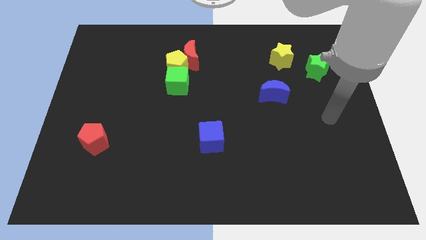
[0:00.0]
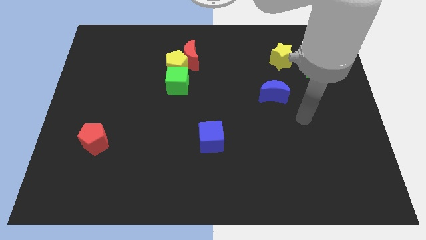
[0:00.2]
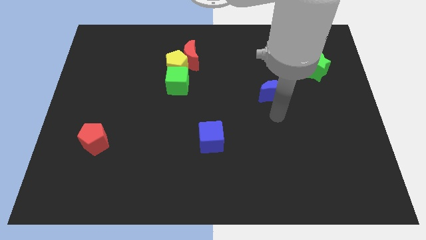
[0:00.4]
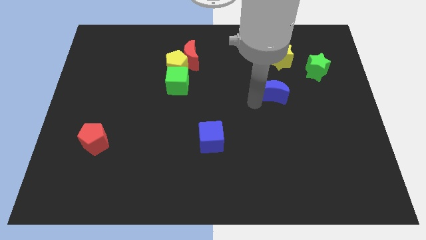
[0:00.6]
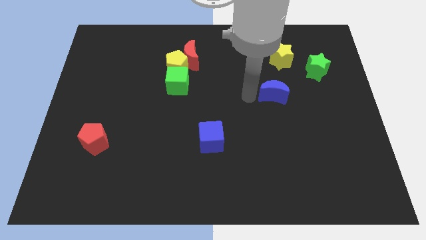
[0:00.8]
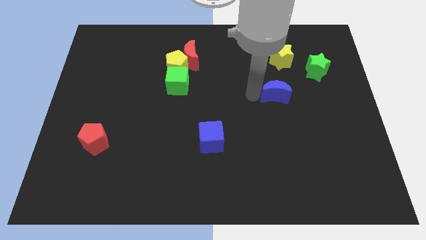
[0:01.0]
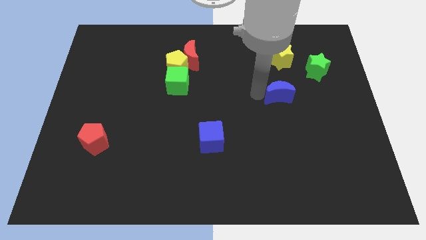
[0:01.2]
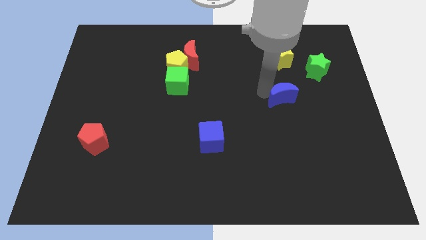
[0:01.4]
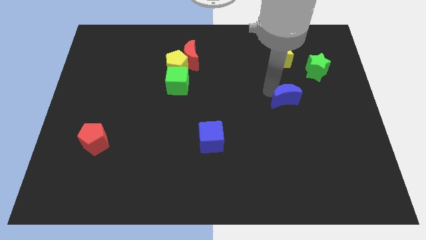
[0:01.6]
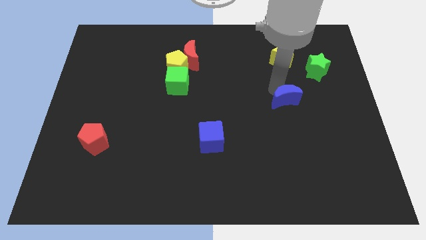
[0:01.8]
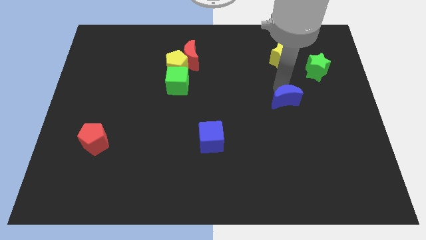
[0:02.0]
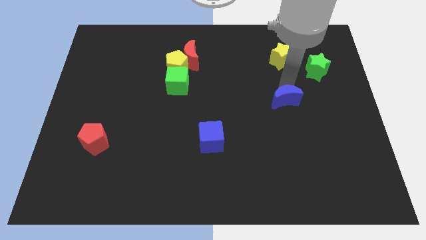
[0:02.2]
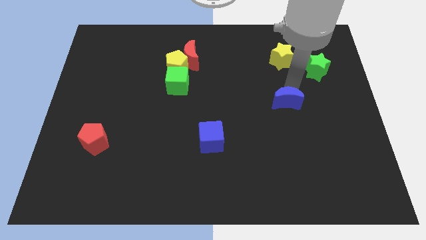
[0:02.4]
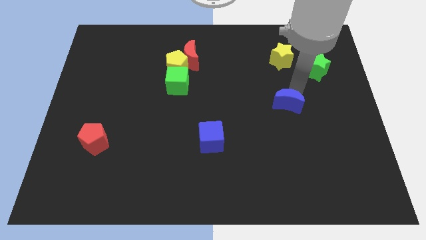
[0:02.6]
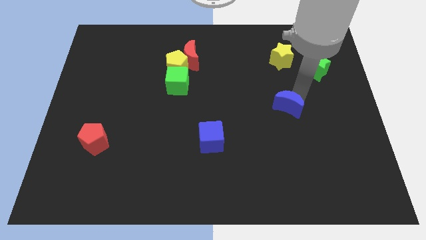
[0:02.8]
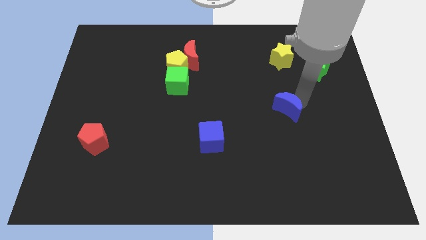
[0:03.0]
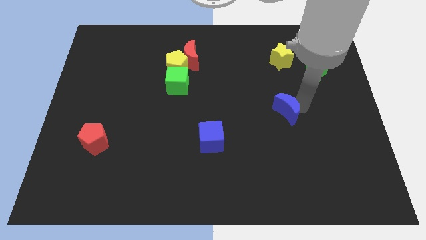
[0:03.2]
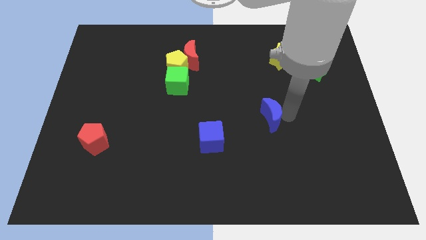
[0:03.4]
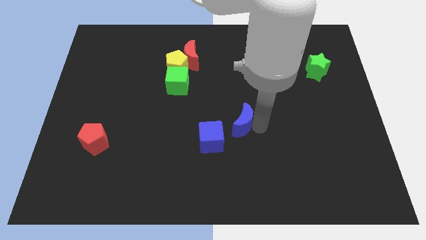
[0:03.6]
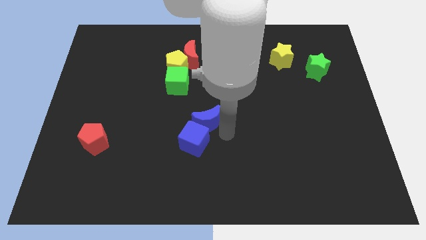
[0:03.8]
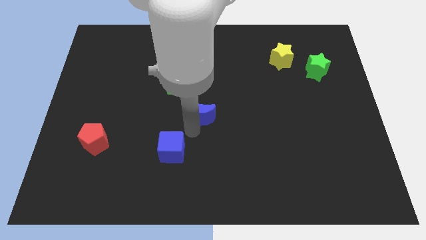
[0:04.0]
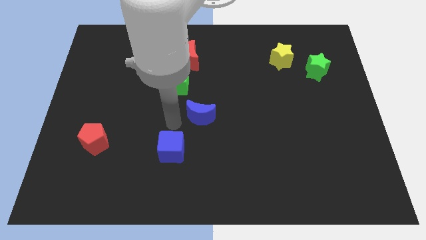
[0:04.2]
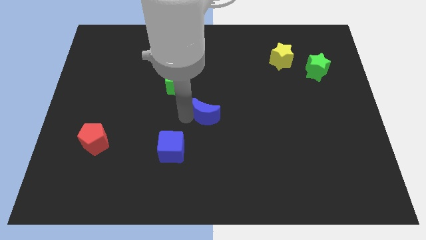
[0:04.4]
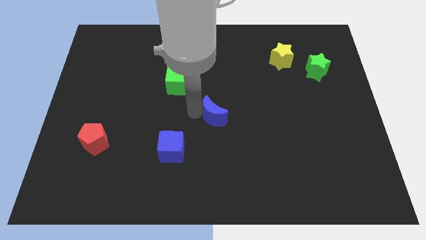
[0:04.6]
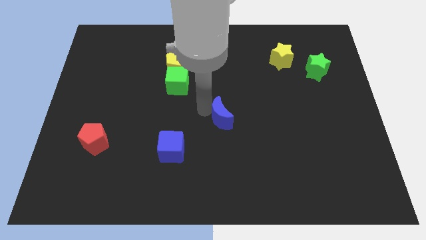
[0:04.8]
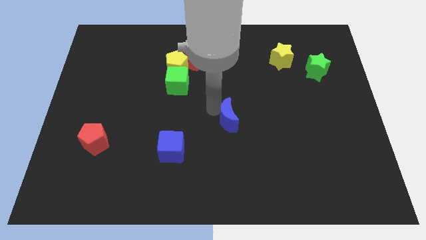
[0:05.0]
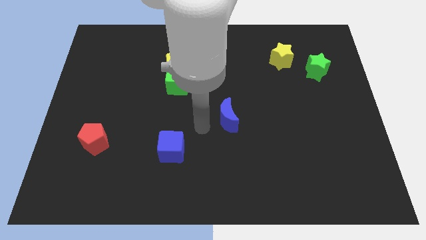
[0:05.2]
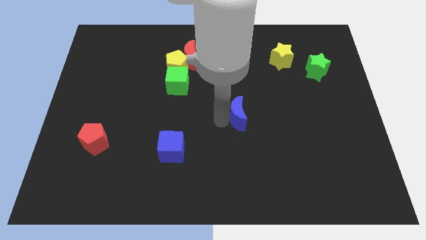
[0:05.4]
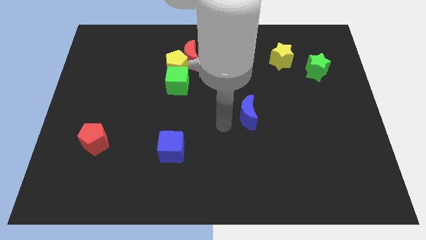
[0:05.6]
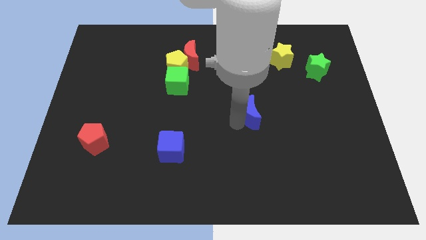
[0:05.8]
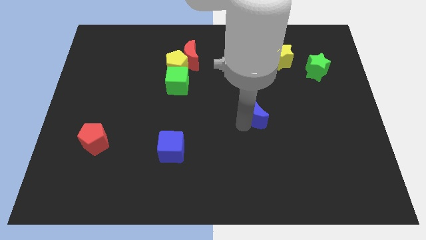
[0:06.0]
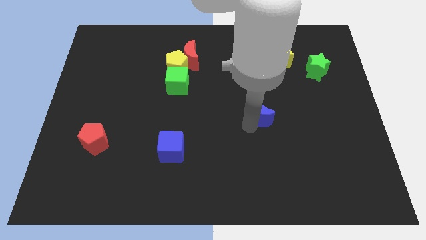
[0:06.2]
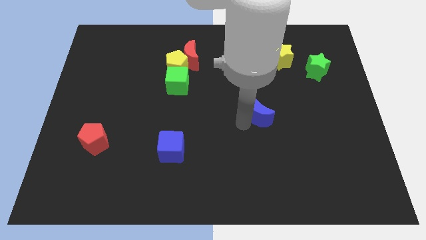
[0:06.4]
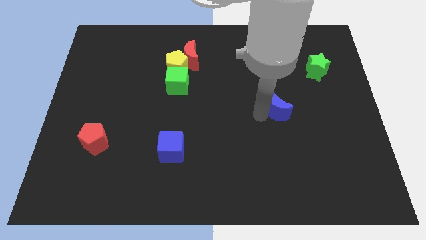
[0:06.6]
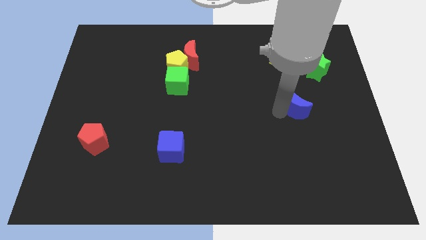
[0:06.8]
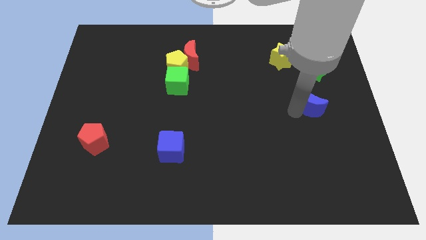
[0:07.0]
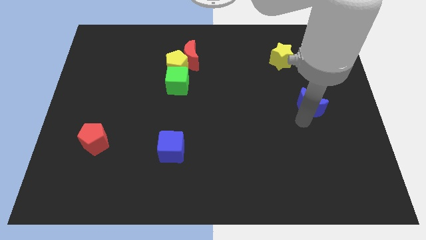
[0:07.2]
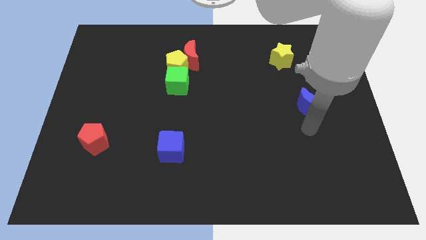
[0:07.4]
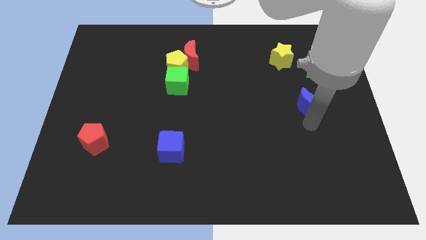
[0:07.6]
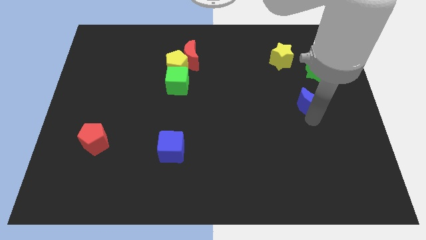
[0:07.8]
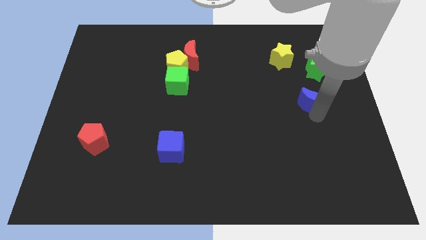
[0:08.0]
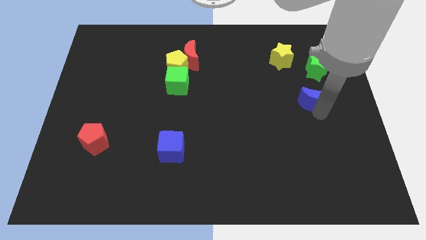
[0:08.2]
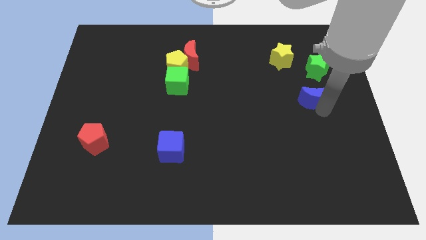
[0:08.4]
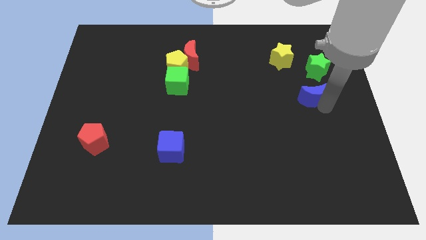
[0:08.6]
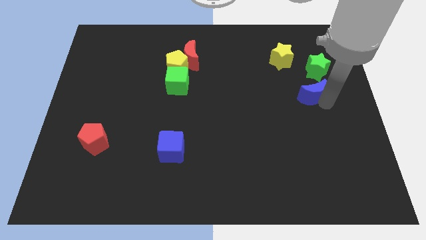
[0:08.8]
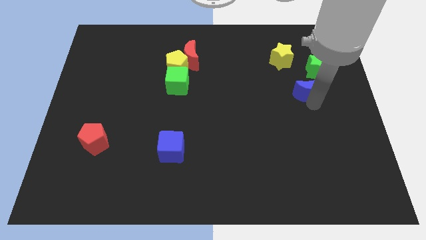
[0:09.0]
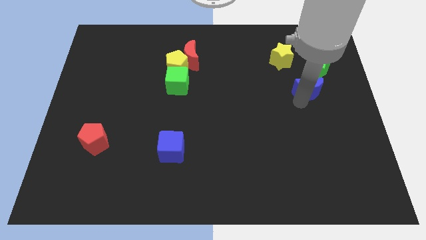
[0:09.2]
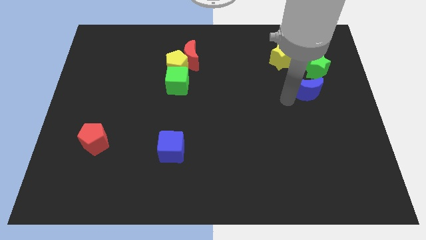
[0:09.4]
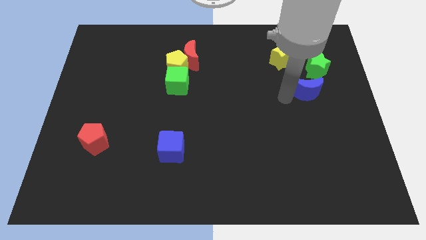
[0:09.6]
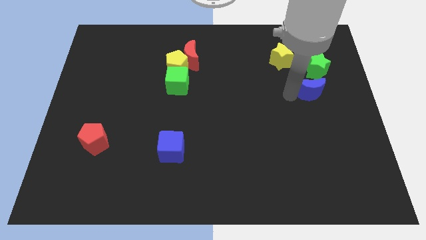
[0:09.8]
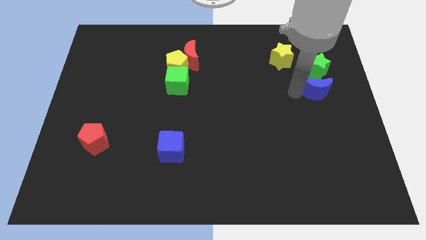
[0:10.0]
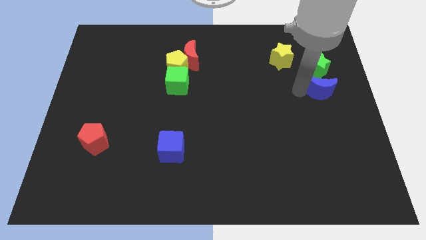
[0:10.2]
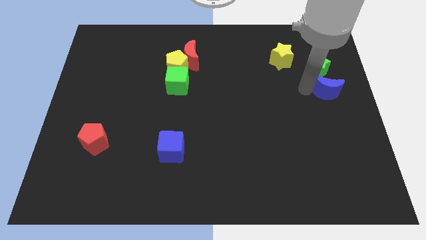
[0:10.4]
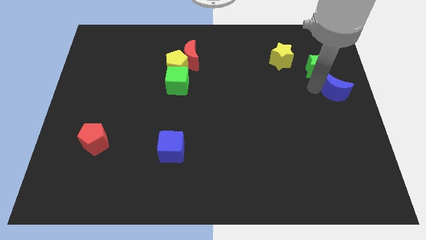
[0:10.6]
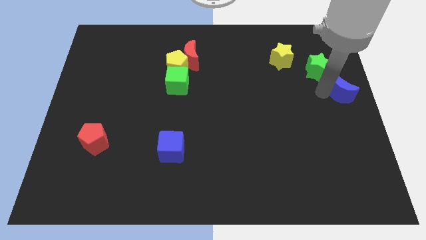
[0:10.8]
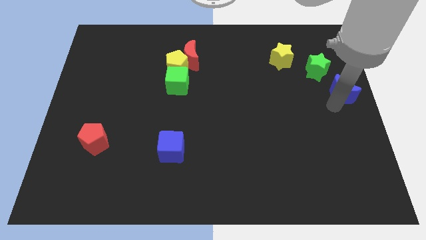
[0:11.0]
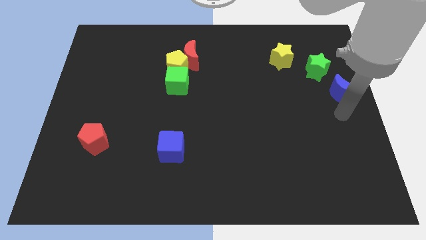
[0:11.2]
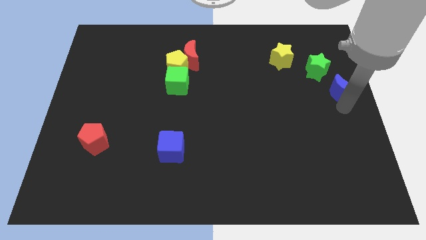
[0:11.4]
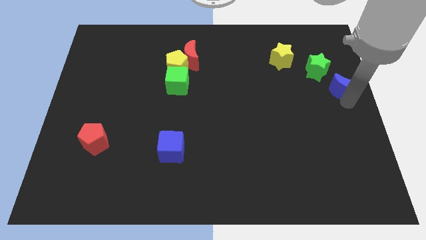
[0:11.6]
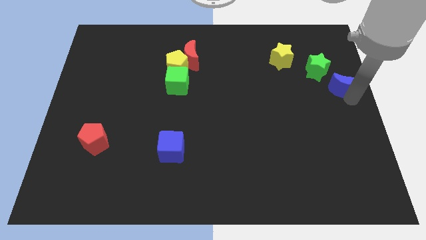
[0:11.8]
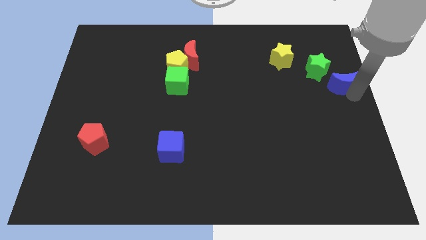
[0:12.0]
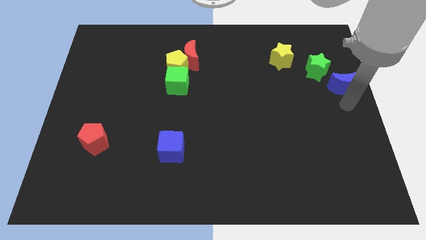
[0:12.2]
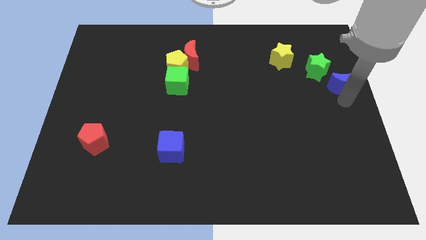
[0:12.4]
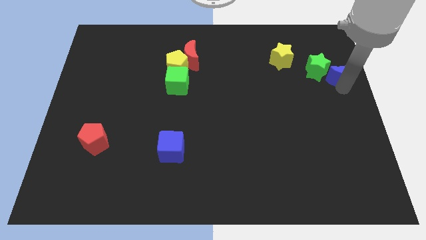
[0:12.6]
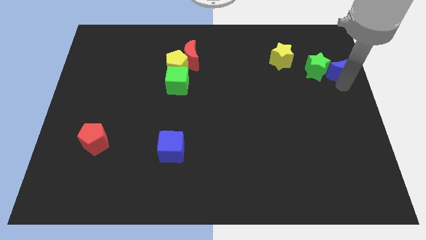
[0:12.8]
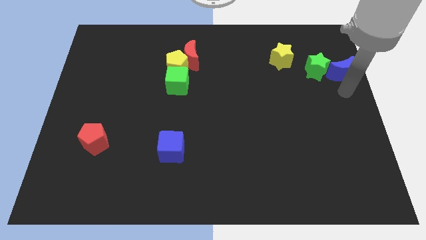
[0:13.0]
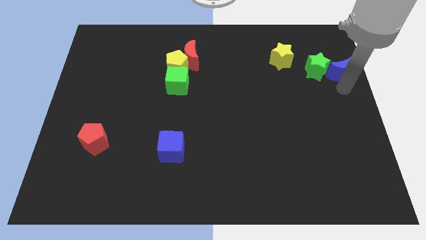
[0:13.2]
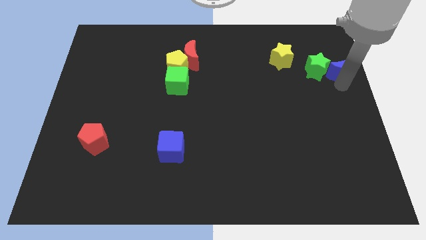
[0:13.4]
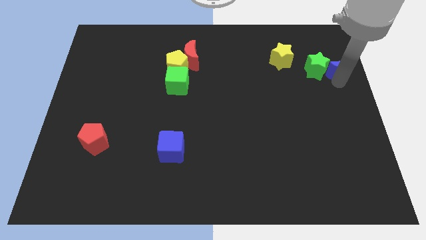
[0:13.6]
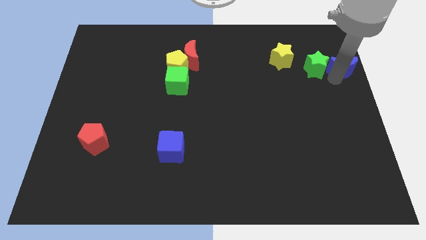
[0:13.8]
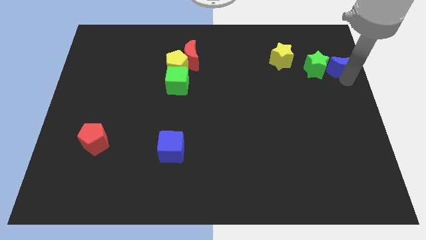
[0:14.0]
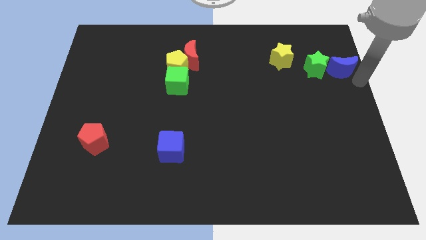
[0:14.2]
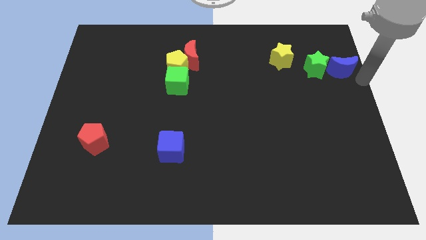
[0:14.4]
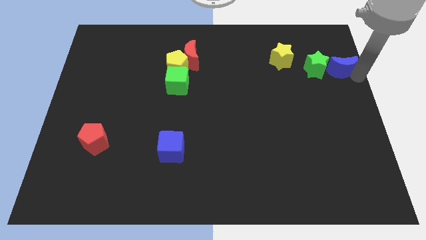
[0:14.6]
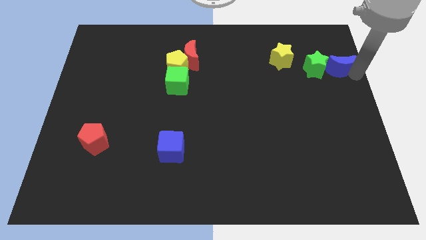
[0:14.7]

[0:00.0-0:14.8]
move the blue moon to the right of the yellow star
